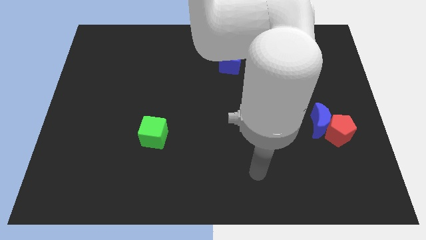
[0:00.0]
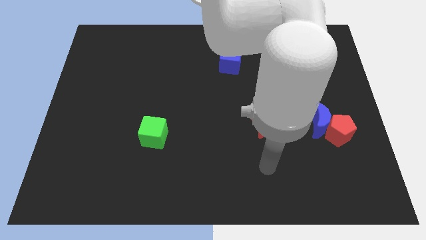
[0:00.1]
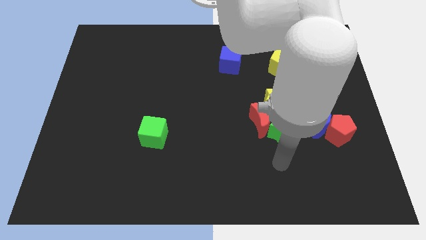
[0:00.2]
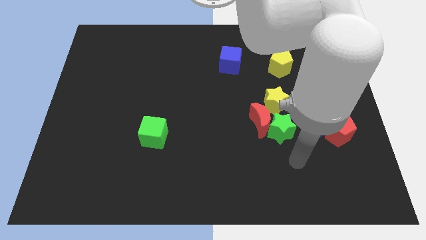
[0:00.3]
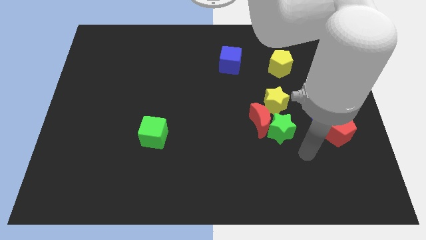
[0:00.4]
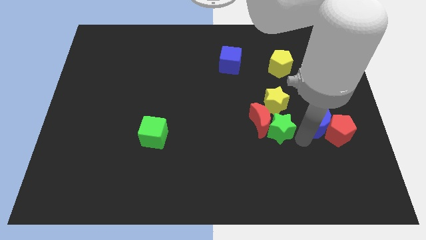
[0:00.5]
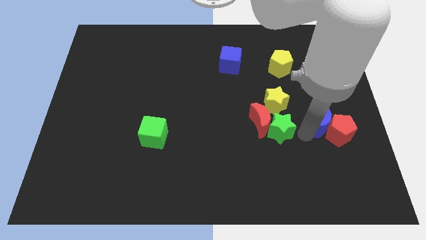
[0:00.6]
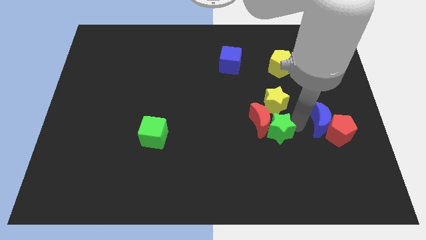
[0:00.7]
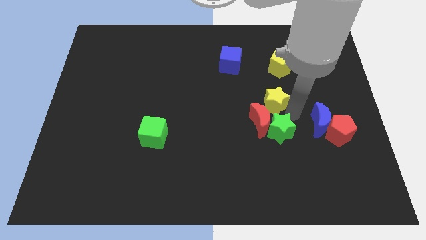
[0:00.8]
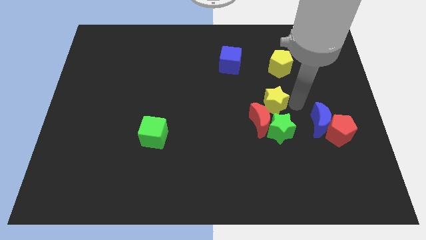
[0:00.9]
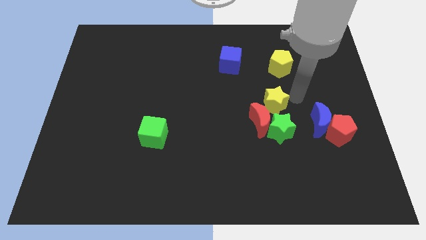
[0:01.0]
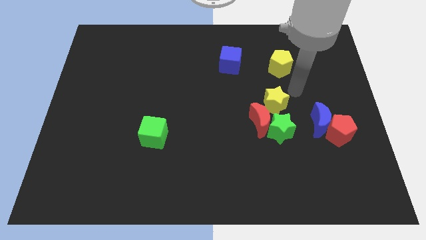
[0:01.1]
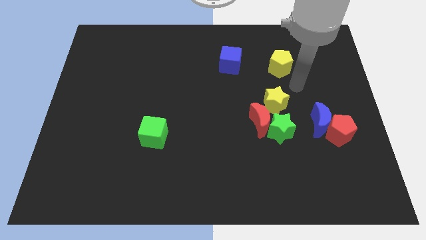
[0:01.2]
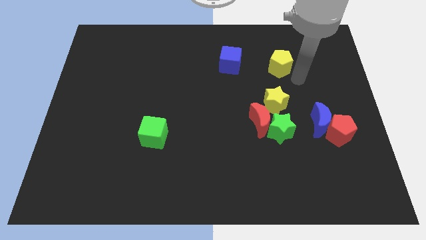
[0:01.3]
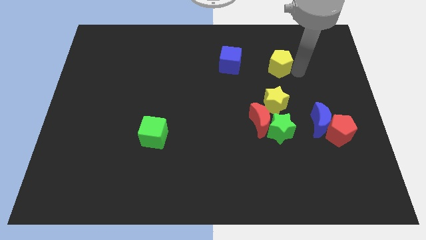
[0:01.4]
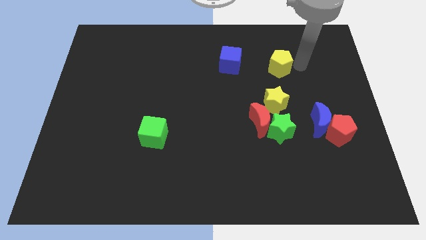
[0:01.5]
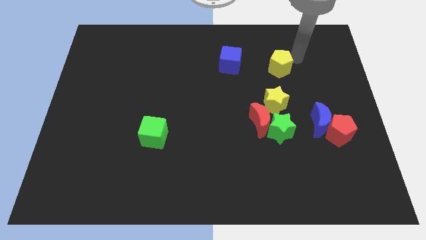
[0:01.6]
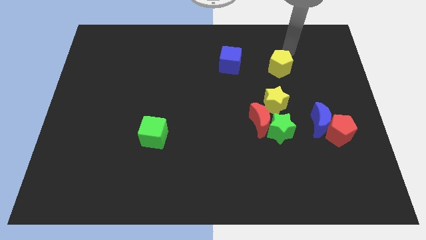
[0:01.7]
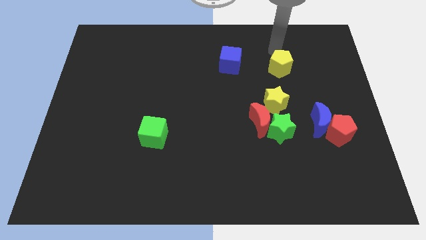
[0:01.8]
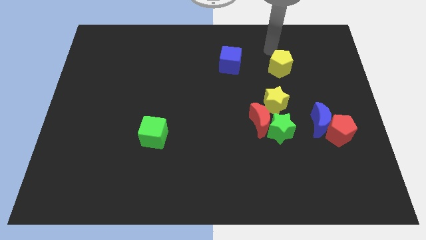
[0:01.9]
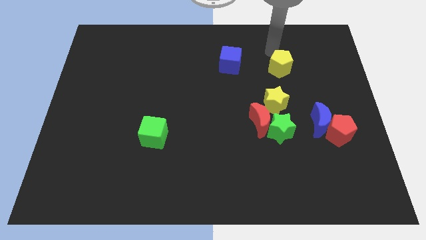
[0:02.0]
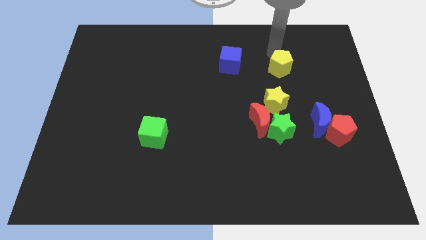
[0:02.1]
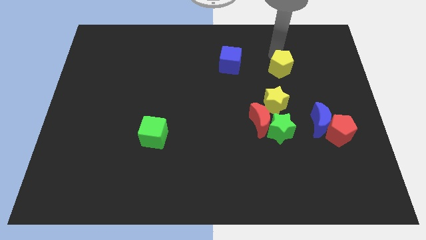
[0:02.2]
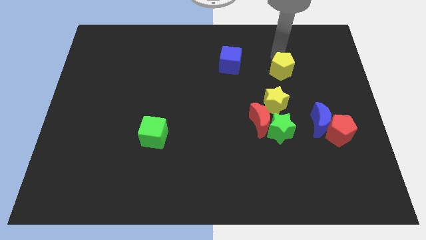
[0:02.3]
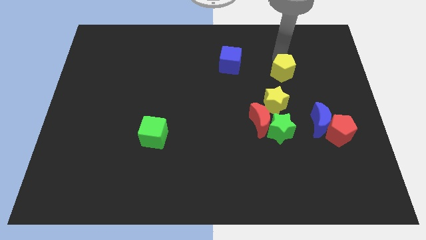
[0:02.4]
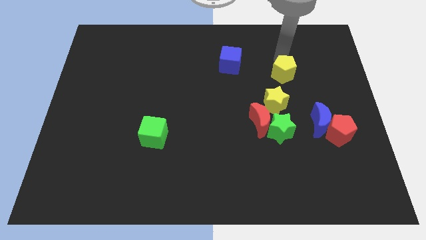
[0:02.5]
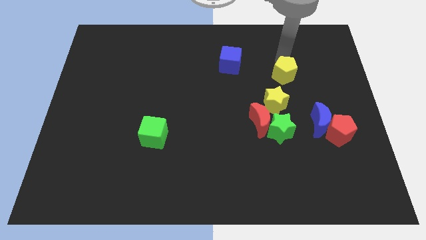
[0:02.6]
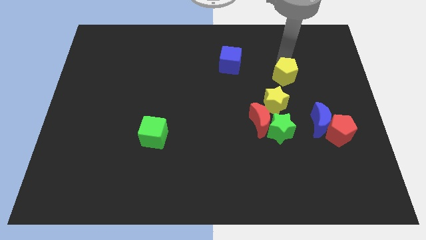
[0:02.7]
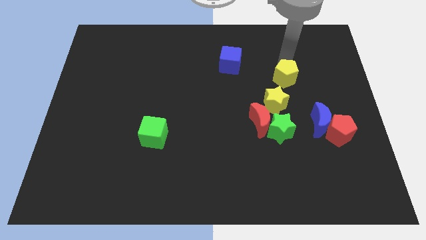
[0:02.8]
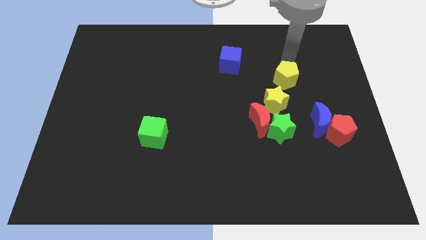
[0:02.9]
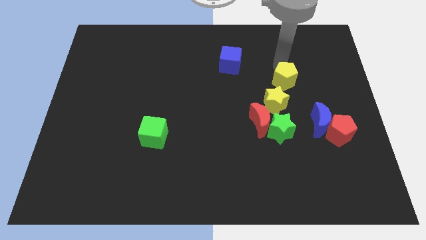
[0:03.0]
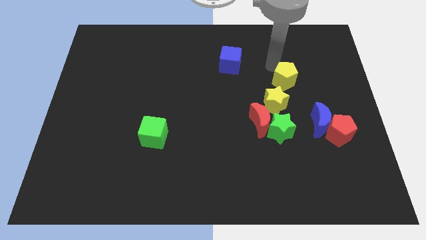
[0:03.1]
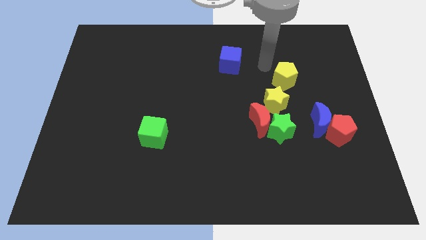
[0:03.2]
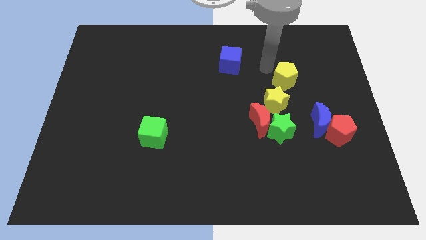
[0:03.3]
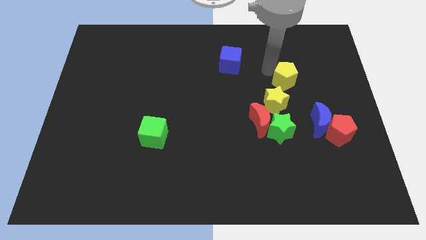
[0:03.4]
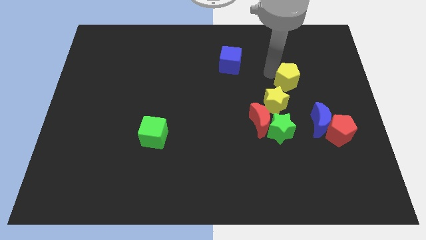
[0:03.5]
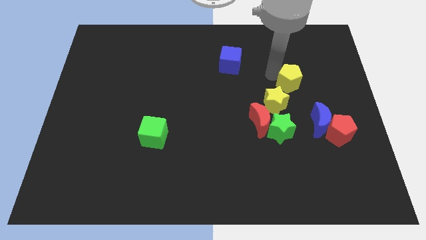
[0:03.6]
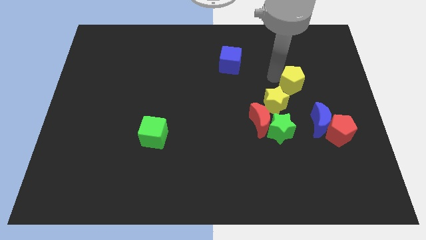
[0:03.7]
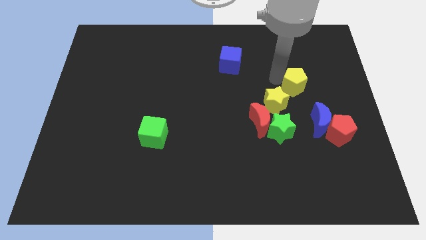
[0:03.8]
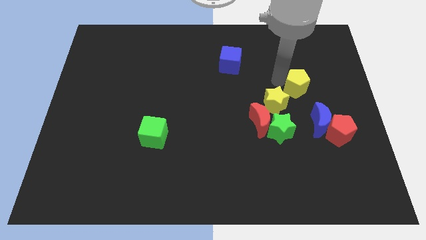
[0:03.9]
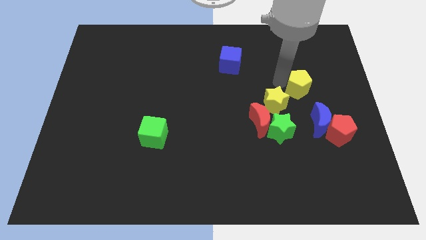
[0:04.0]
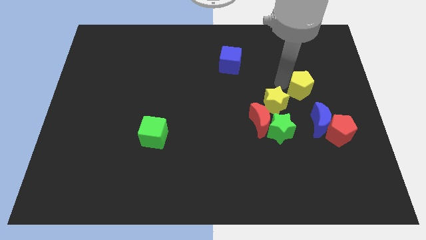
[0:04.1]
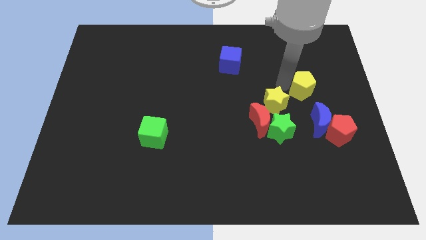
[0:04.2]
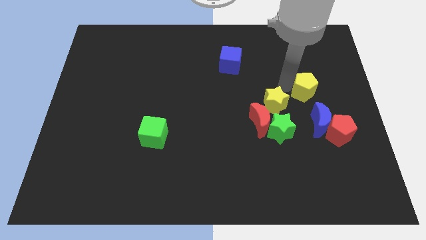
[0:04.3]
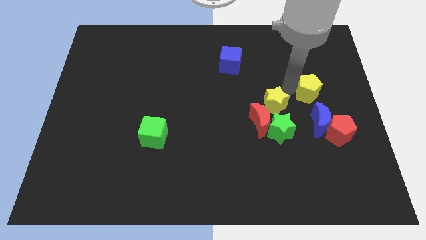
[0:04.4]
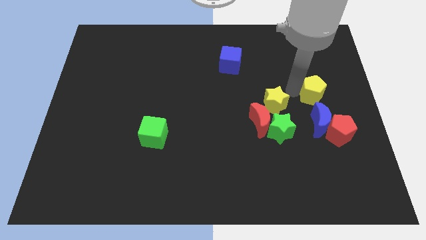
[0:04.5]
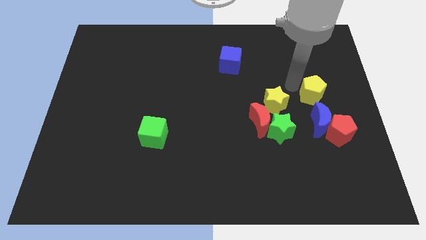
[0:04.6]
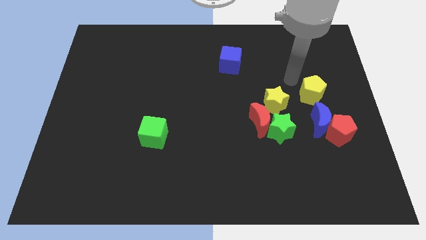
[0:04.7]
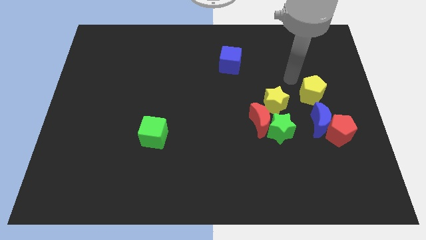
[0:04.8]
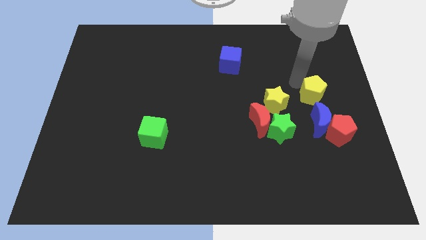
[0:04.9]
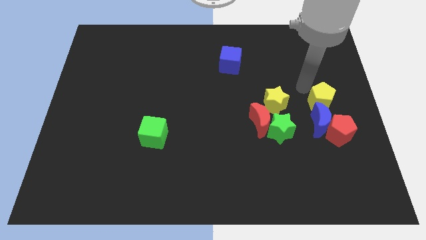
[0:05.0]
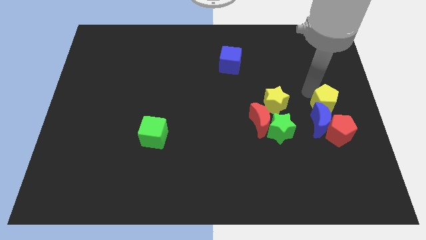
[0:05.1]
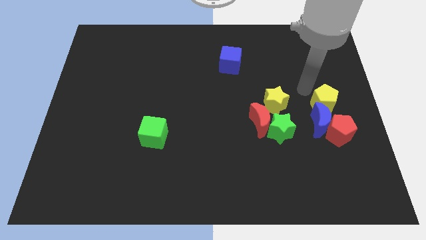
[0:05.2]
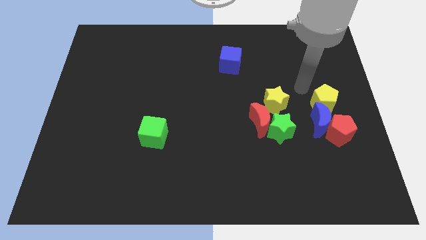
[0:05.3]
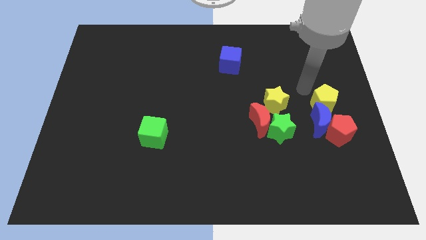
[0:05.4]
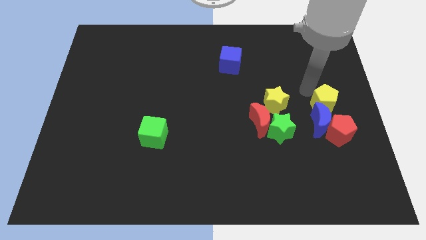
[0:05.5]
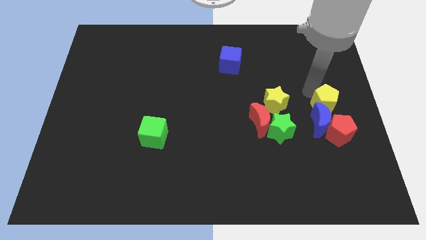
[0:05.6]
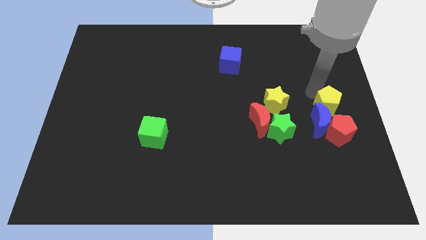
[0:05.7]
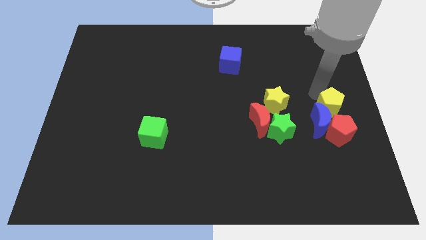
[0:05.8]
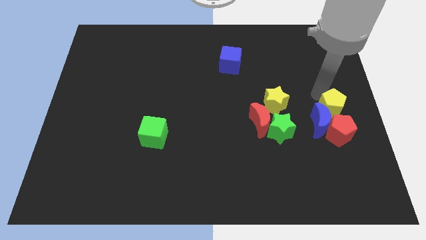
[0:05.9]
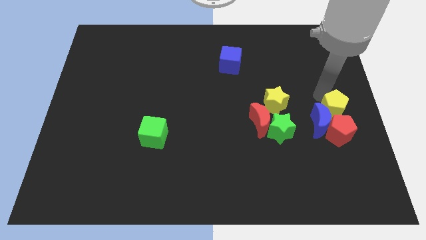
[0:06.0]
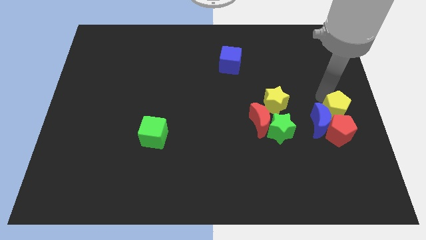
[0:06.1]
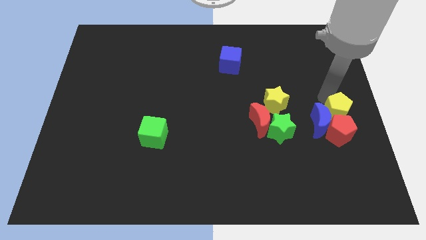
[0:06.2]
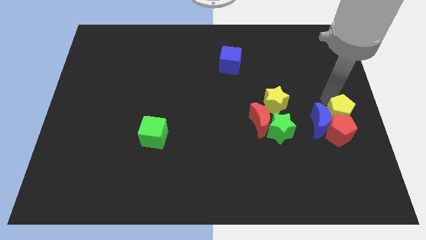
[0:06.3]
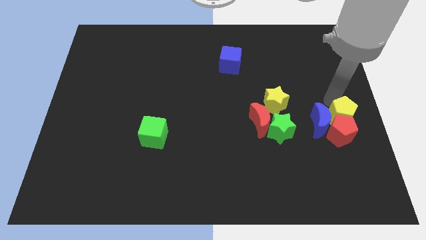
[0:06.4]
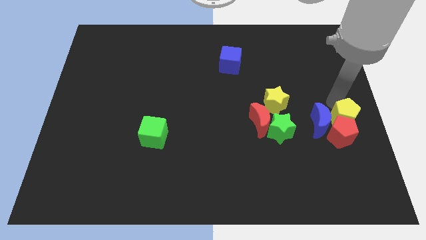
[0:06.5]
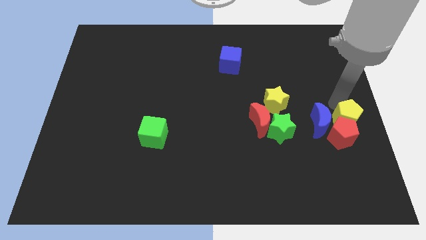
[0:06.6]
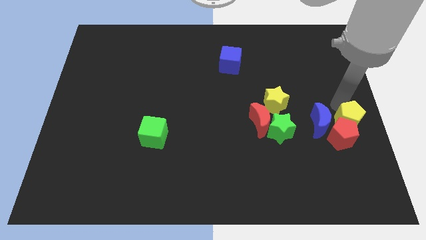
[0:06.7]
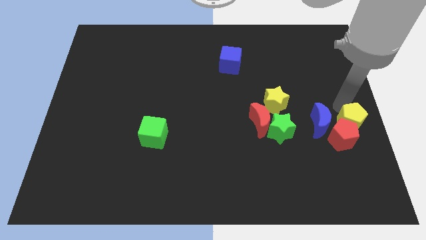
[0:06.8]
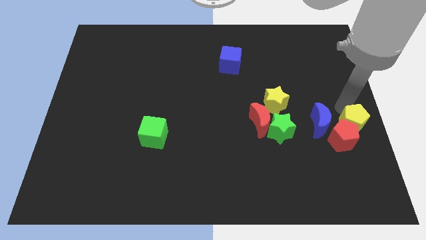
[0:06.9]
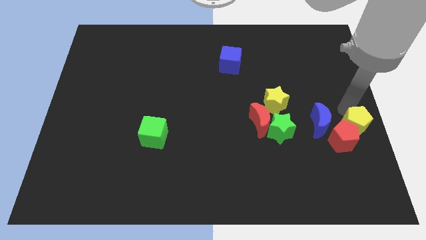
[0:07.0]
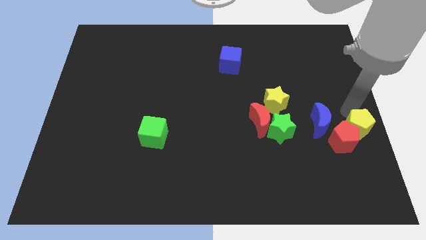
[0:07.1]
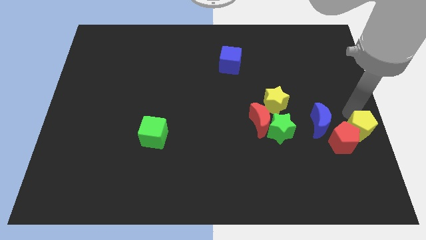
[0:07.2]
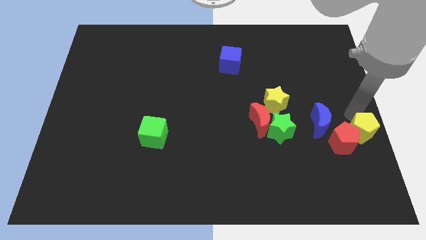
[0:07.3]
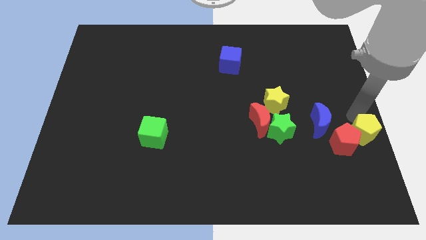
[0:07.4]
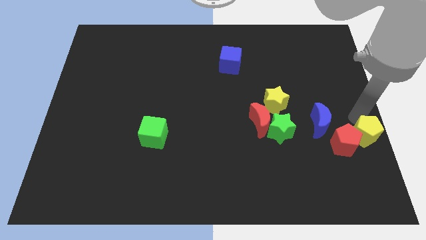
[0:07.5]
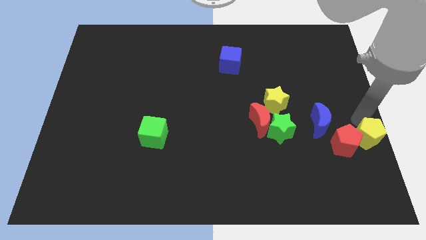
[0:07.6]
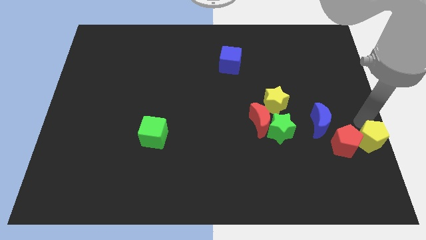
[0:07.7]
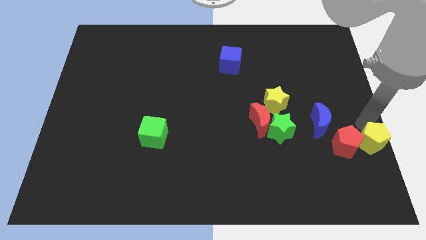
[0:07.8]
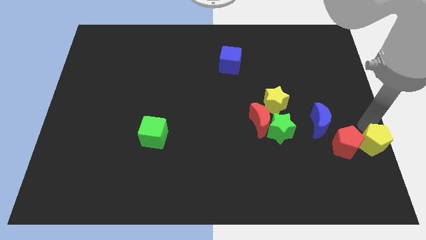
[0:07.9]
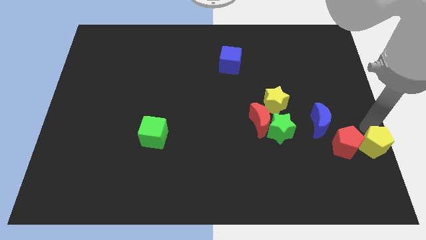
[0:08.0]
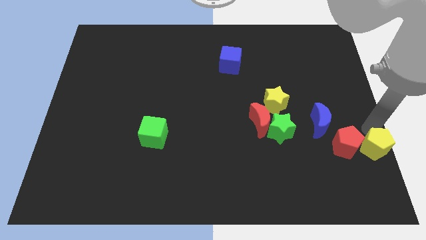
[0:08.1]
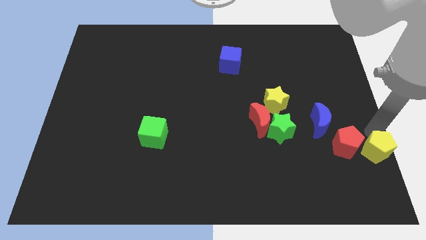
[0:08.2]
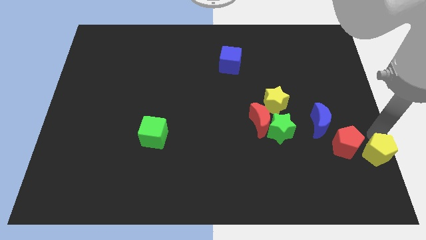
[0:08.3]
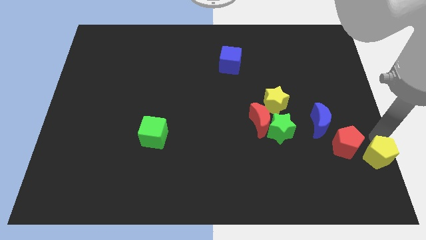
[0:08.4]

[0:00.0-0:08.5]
put the yellow pentagon to the lower right corner
